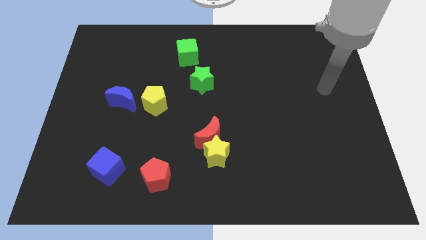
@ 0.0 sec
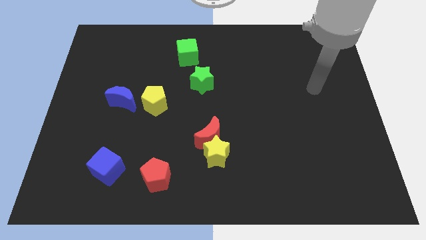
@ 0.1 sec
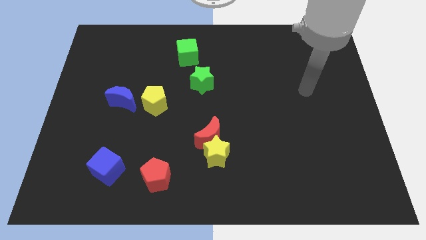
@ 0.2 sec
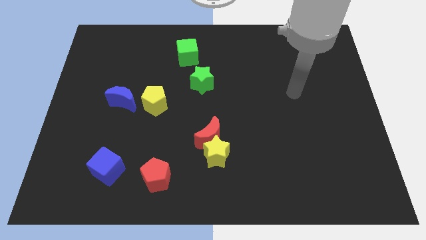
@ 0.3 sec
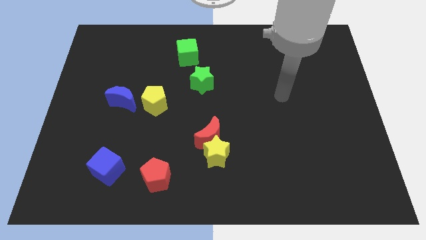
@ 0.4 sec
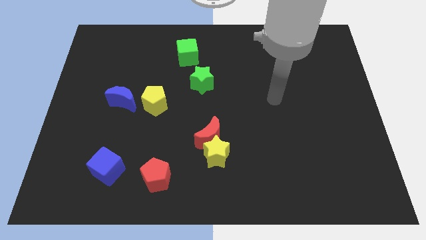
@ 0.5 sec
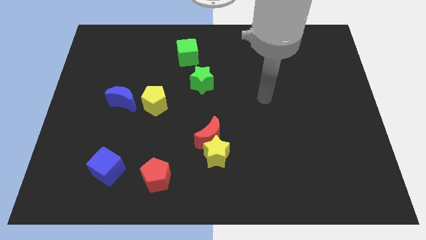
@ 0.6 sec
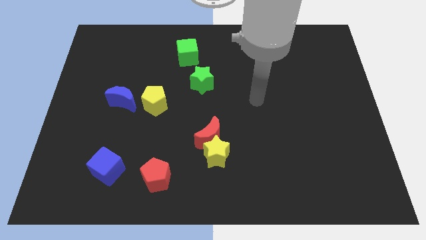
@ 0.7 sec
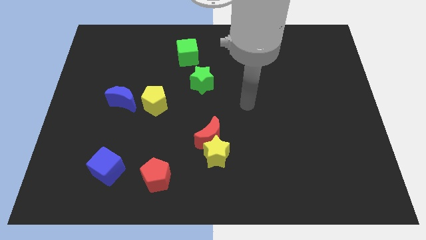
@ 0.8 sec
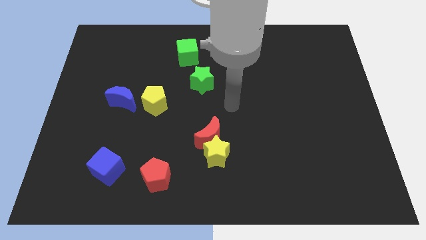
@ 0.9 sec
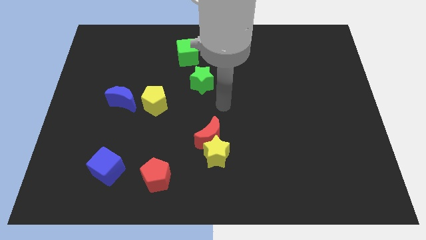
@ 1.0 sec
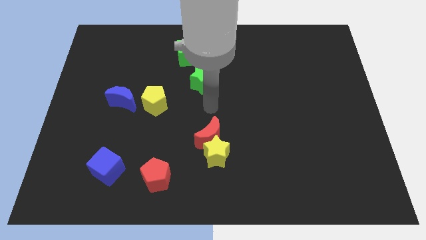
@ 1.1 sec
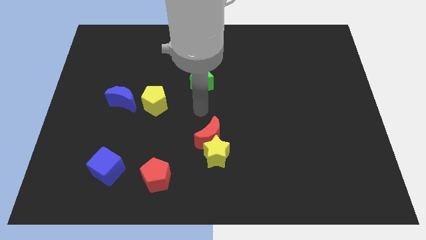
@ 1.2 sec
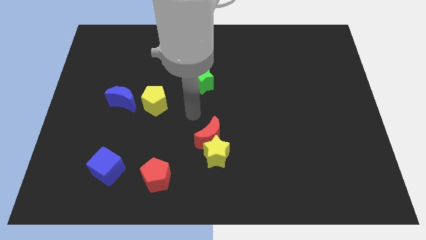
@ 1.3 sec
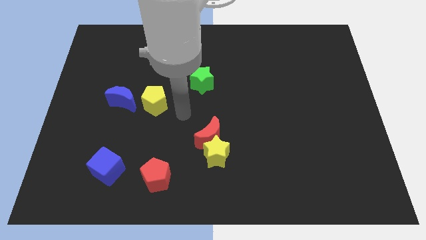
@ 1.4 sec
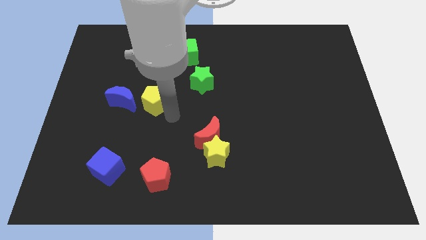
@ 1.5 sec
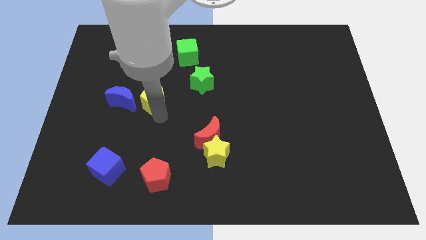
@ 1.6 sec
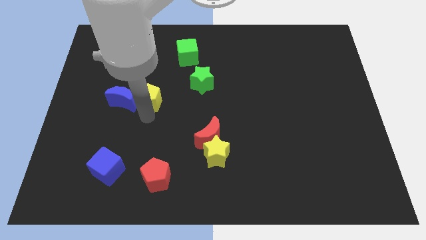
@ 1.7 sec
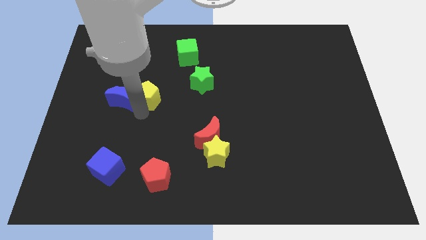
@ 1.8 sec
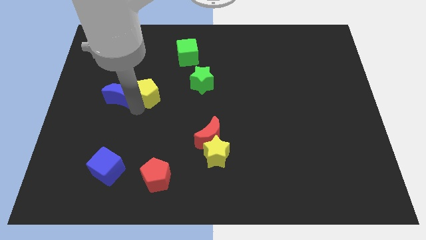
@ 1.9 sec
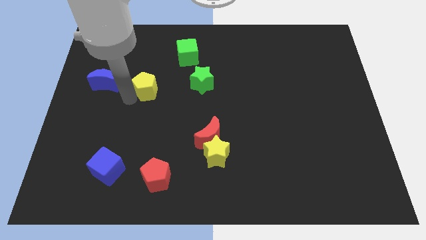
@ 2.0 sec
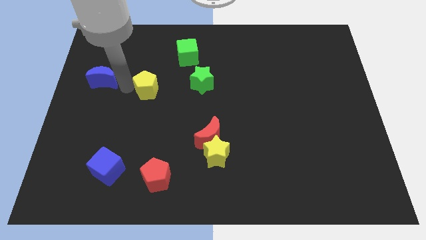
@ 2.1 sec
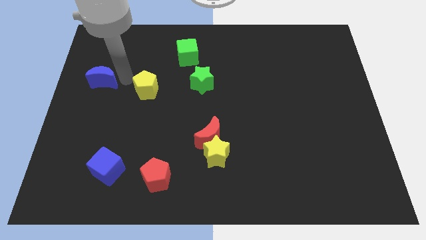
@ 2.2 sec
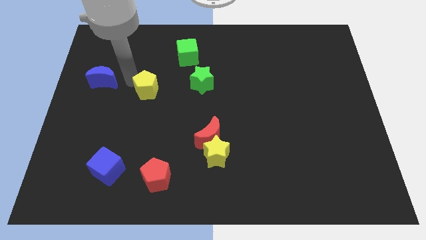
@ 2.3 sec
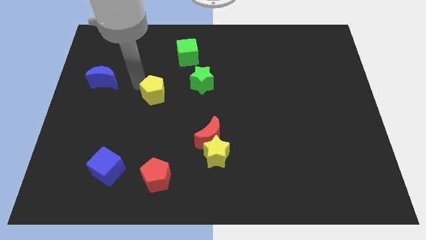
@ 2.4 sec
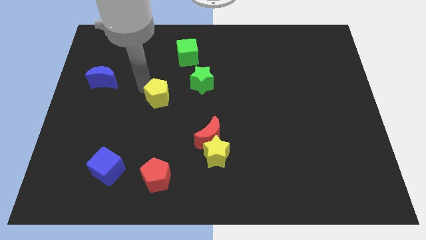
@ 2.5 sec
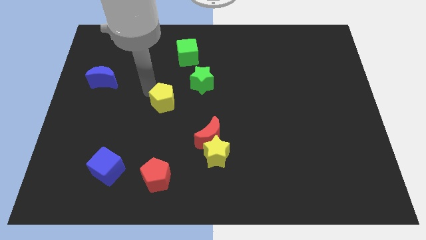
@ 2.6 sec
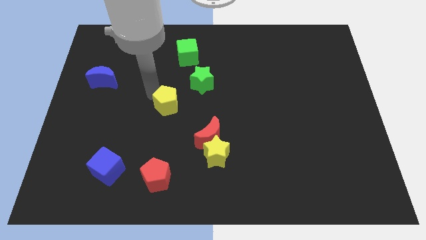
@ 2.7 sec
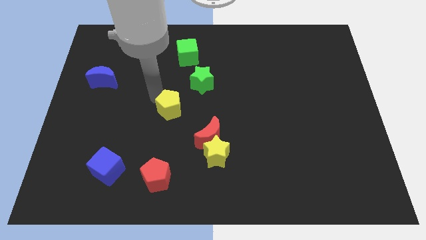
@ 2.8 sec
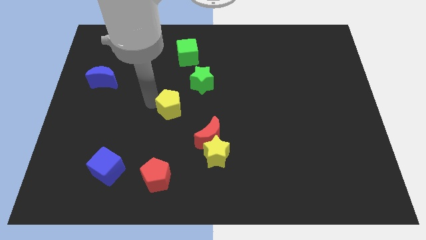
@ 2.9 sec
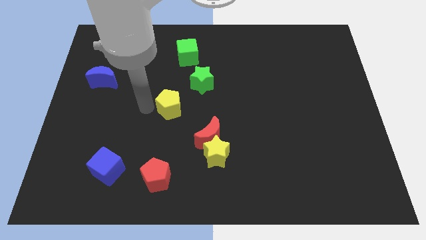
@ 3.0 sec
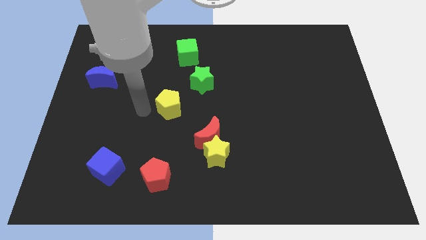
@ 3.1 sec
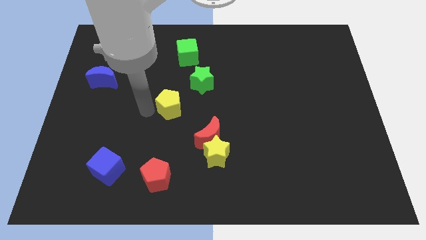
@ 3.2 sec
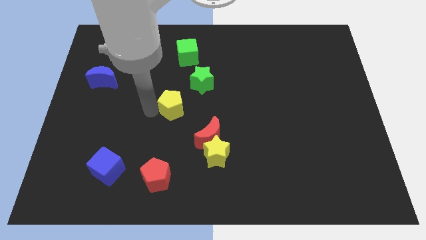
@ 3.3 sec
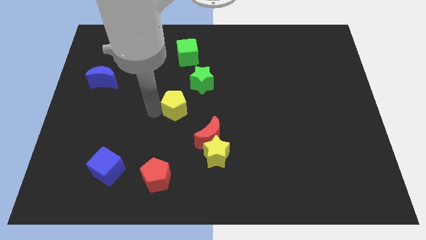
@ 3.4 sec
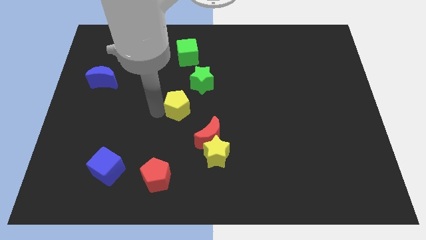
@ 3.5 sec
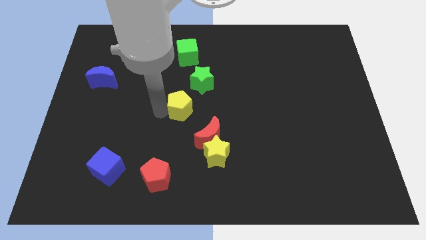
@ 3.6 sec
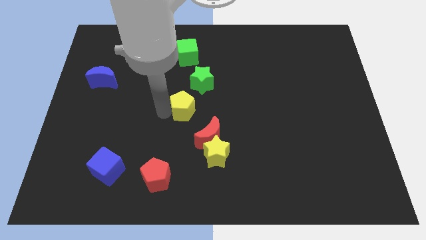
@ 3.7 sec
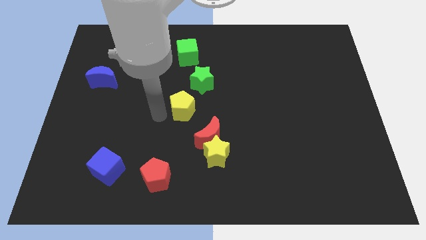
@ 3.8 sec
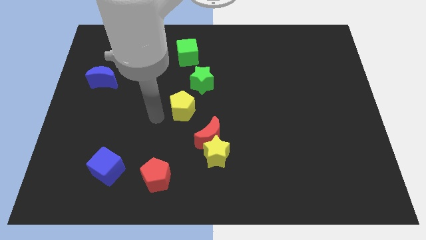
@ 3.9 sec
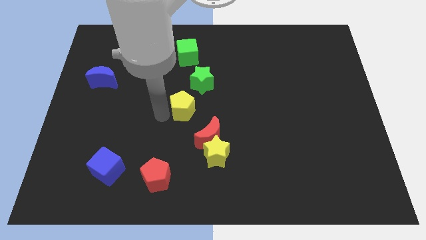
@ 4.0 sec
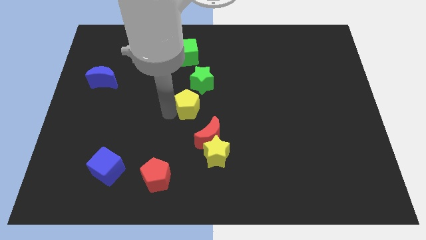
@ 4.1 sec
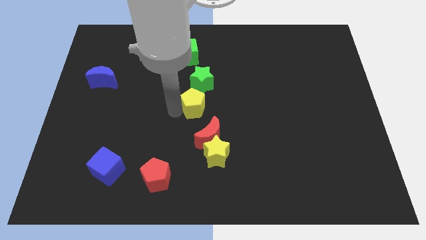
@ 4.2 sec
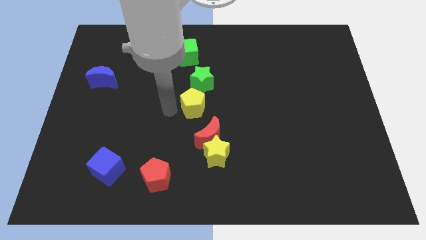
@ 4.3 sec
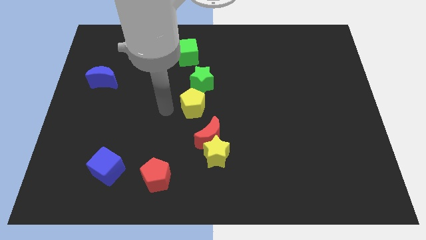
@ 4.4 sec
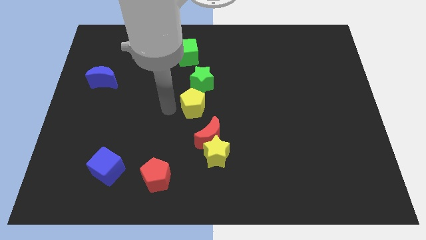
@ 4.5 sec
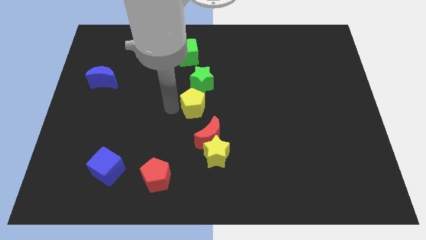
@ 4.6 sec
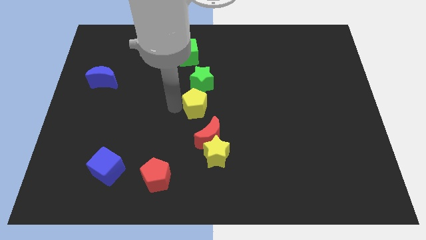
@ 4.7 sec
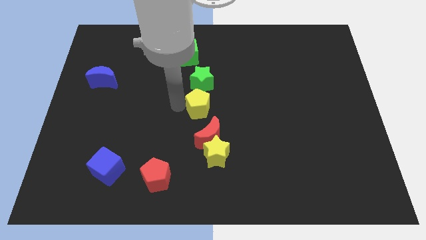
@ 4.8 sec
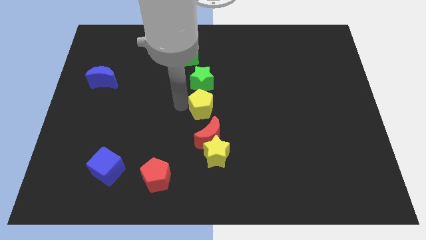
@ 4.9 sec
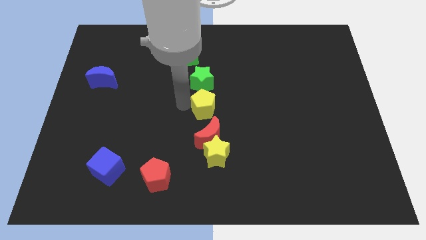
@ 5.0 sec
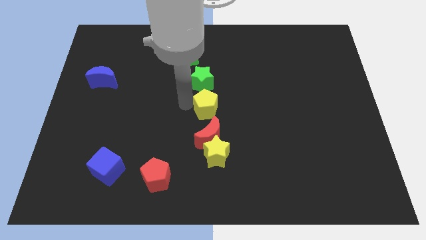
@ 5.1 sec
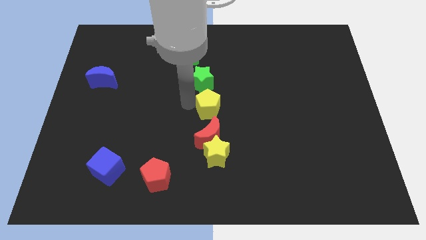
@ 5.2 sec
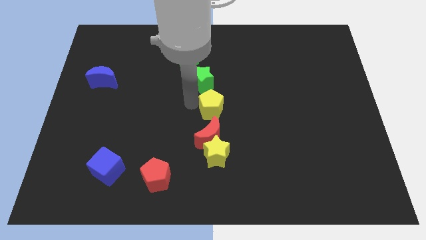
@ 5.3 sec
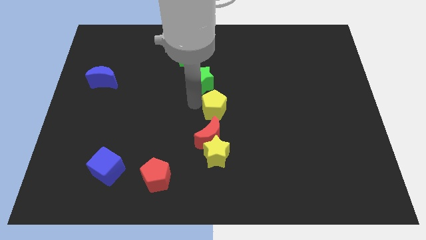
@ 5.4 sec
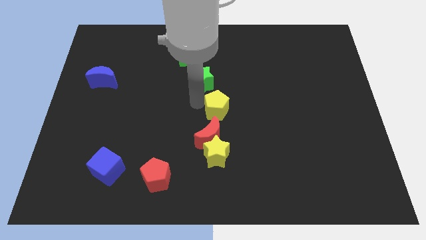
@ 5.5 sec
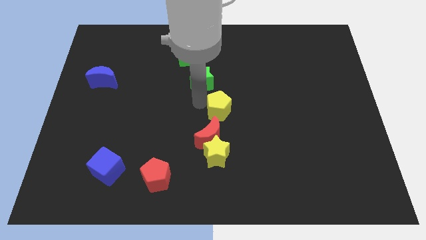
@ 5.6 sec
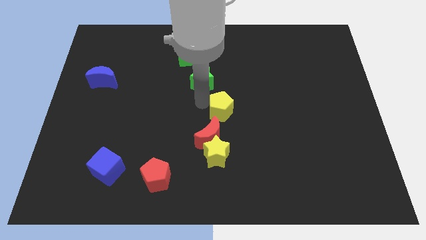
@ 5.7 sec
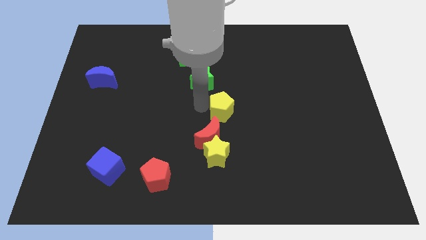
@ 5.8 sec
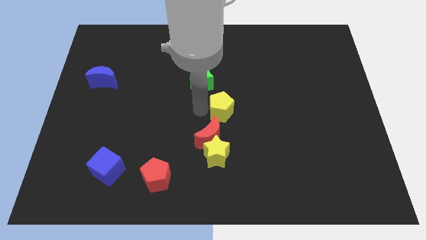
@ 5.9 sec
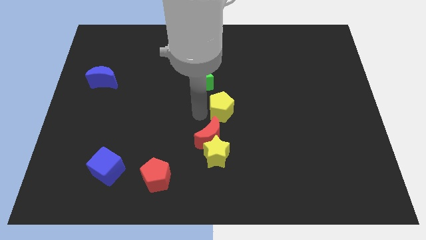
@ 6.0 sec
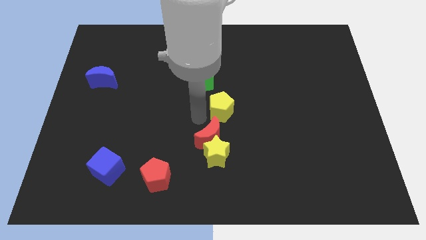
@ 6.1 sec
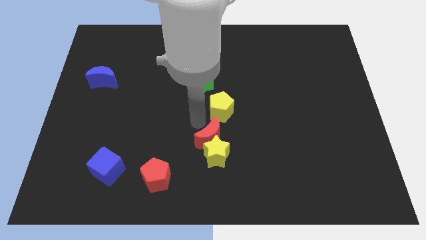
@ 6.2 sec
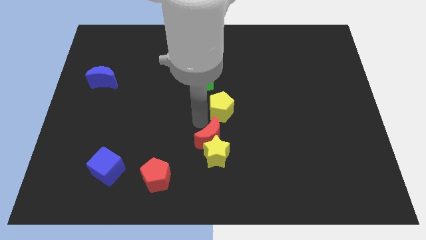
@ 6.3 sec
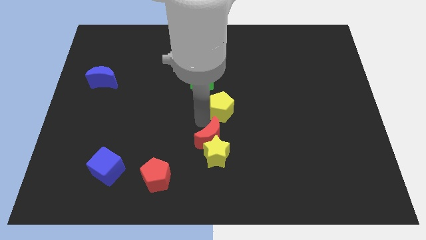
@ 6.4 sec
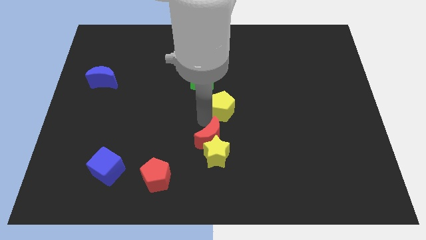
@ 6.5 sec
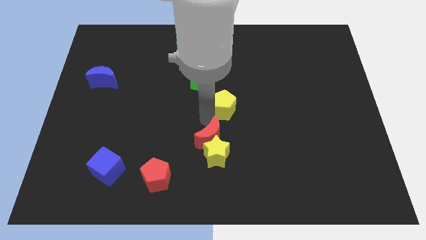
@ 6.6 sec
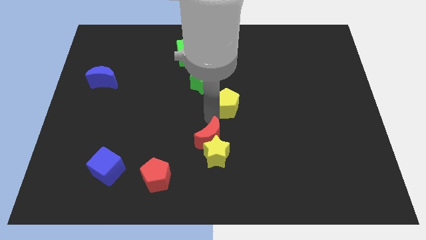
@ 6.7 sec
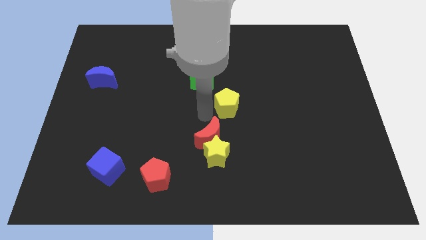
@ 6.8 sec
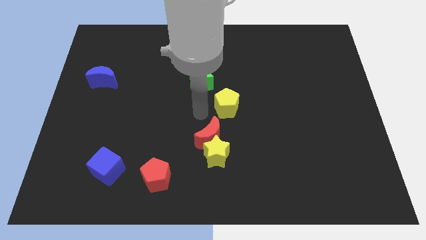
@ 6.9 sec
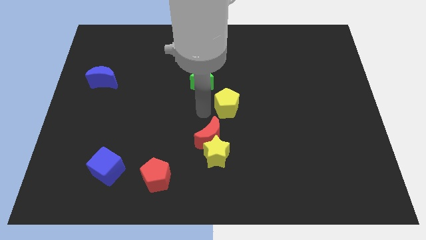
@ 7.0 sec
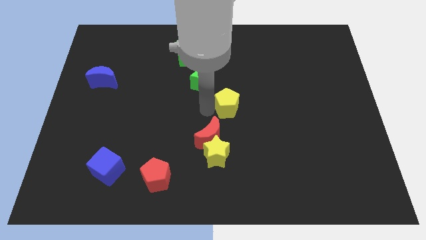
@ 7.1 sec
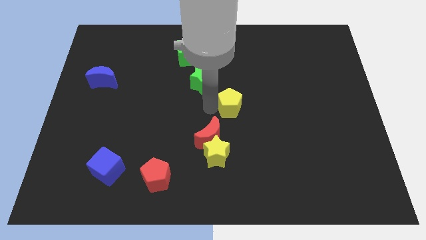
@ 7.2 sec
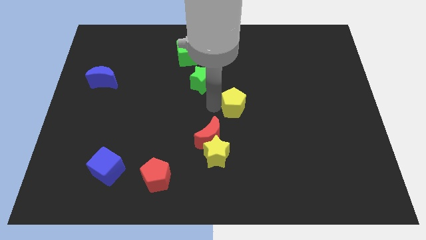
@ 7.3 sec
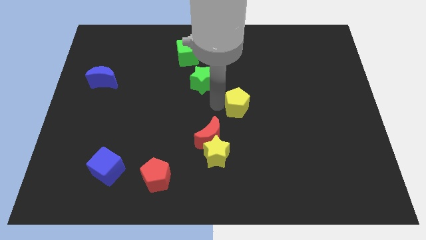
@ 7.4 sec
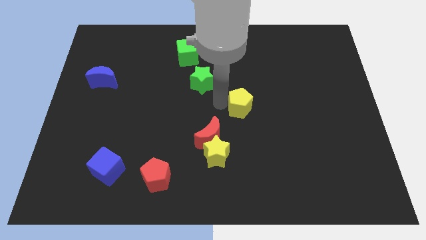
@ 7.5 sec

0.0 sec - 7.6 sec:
push the yellow pentagon to the right

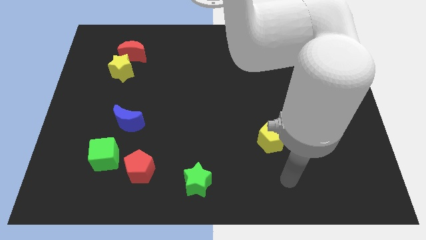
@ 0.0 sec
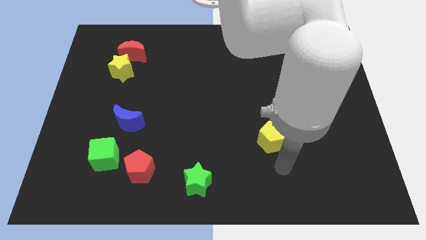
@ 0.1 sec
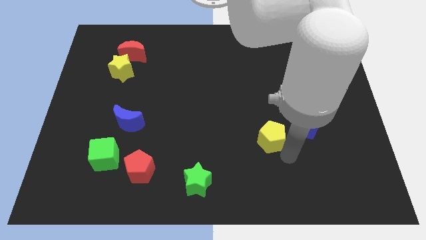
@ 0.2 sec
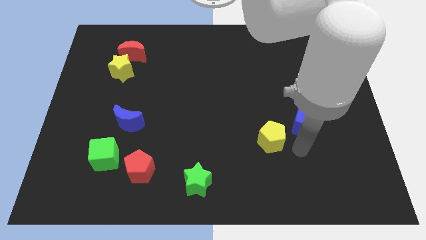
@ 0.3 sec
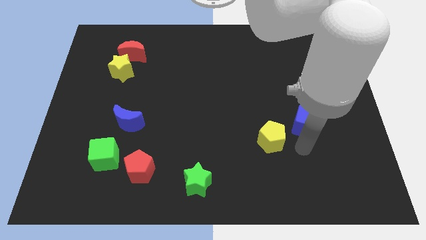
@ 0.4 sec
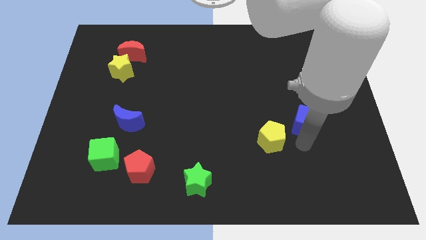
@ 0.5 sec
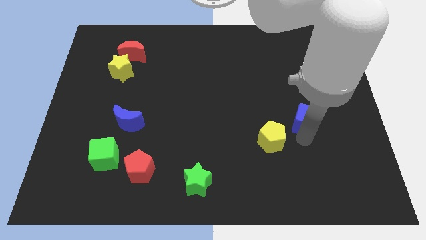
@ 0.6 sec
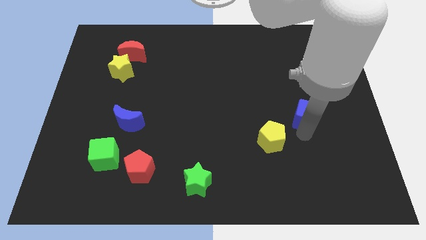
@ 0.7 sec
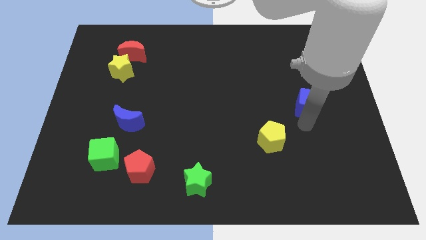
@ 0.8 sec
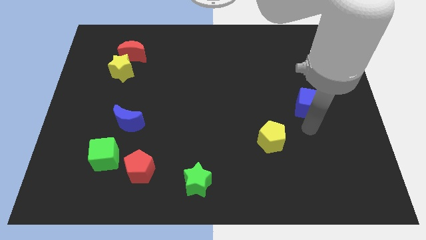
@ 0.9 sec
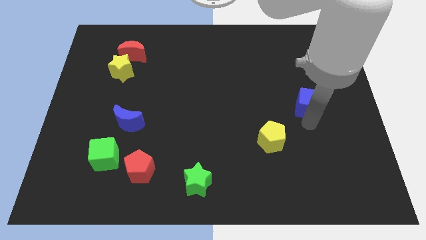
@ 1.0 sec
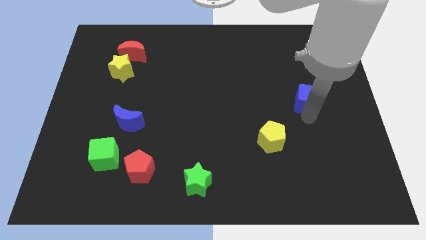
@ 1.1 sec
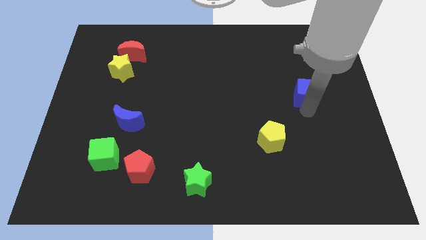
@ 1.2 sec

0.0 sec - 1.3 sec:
slightly push the blue cube upwards
